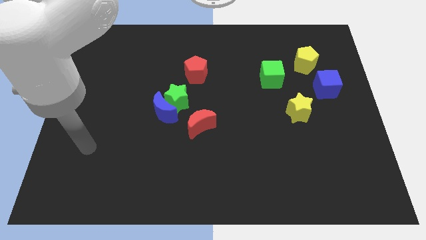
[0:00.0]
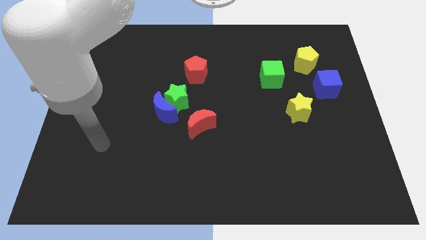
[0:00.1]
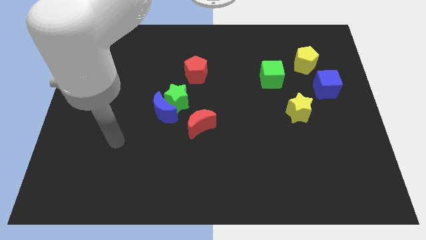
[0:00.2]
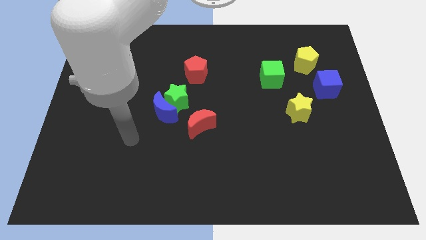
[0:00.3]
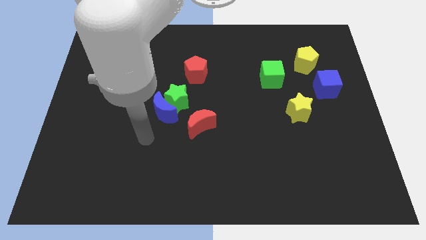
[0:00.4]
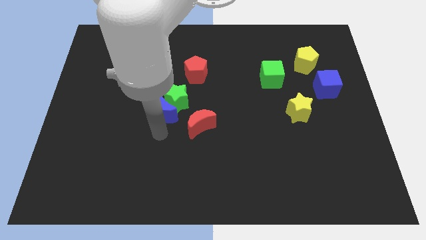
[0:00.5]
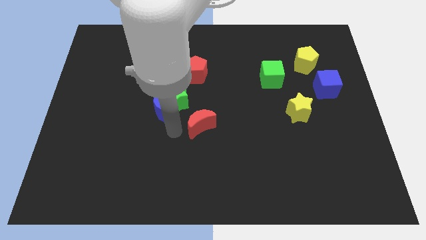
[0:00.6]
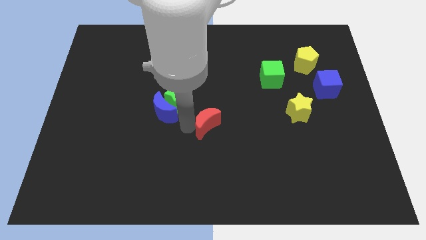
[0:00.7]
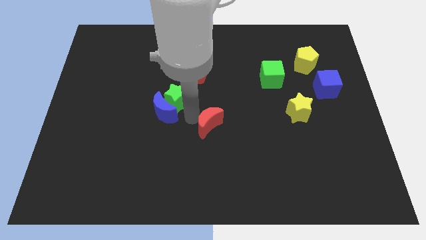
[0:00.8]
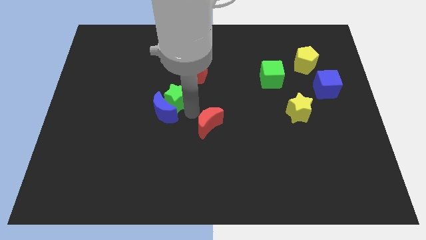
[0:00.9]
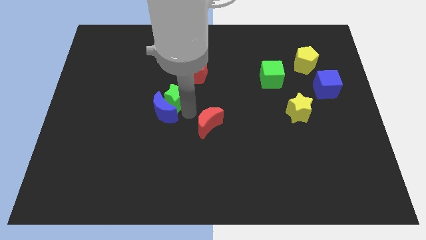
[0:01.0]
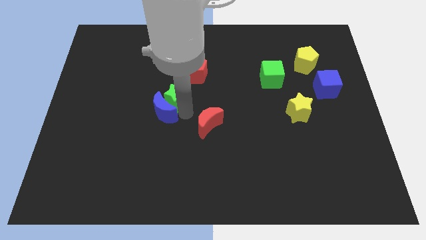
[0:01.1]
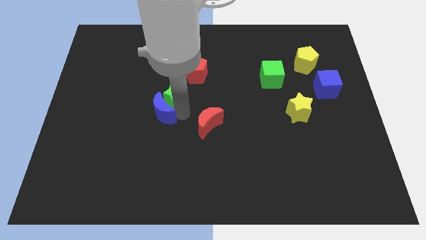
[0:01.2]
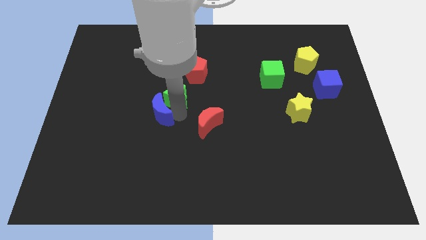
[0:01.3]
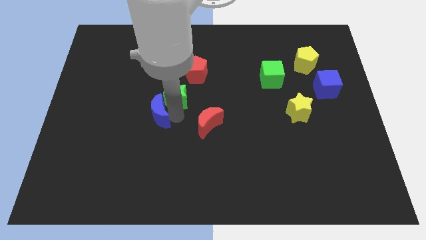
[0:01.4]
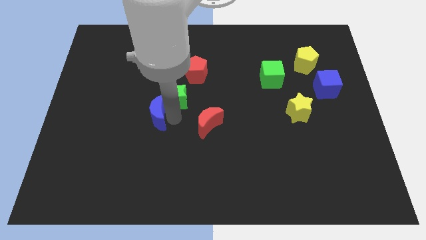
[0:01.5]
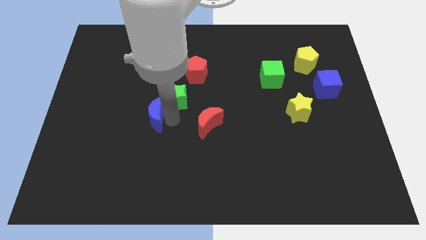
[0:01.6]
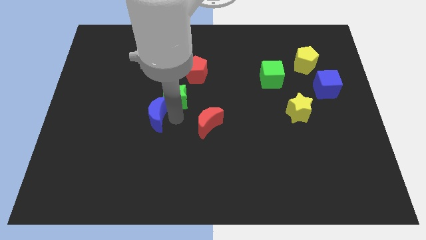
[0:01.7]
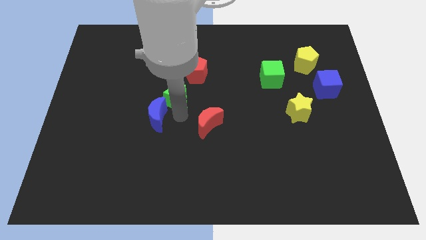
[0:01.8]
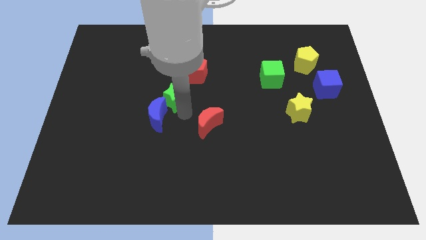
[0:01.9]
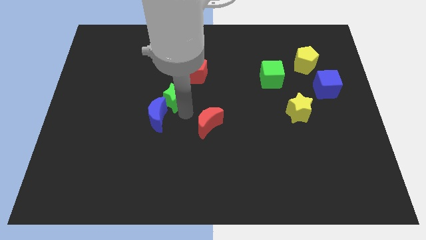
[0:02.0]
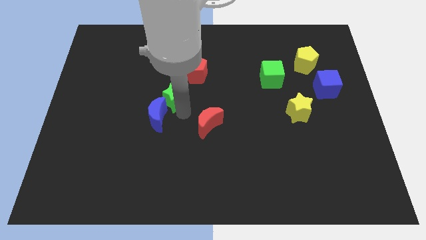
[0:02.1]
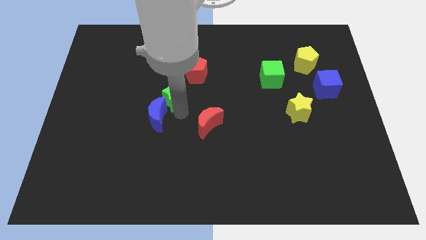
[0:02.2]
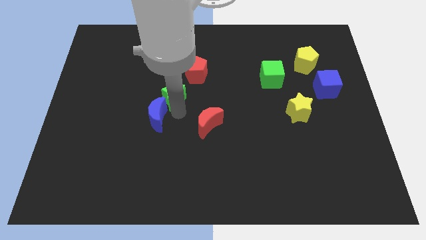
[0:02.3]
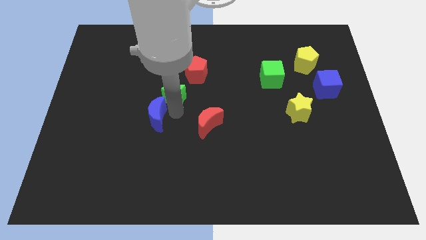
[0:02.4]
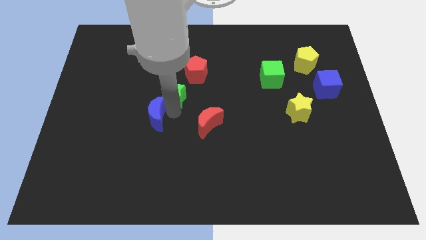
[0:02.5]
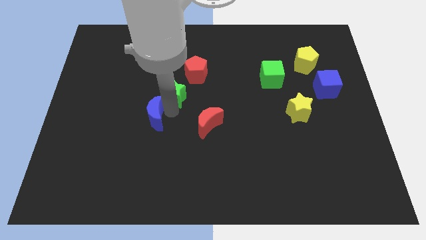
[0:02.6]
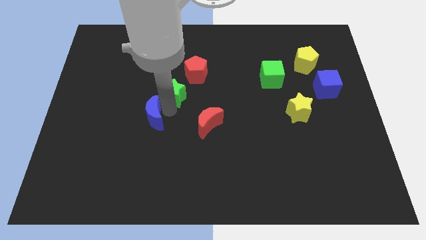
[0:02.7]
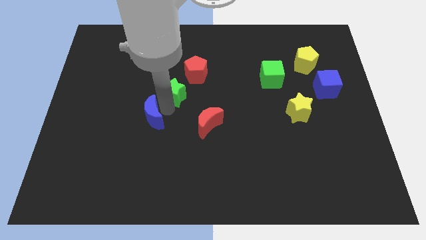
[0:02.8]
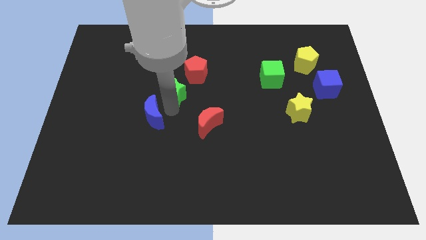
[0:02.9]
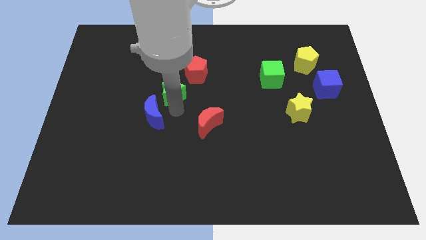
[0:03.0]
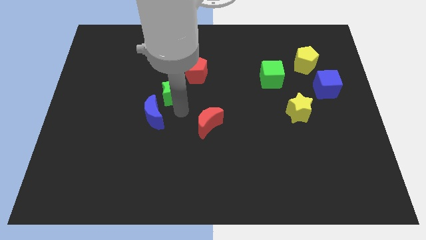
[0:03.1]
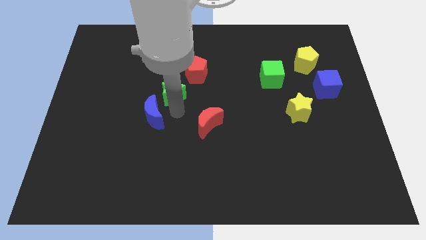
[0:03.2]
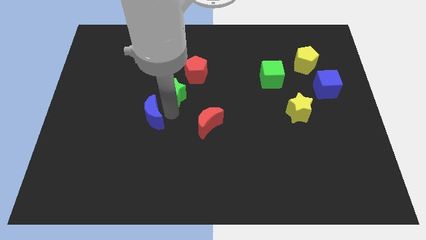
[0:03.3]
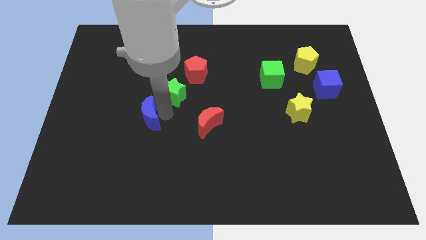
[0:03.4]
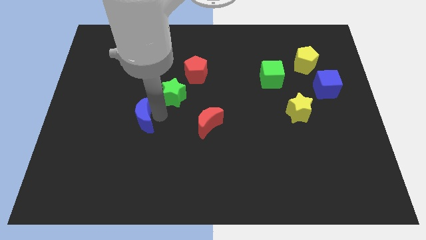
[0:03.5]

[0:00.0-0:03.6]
pull the blue moon apart from the green star and red moon

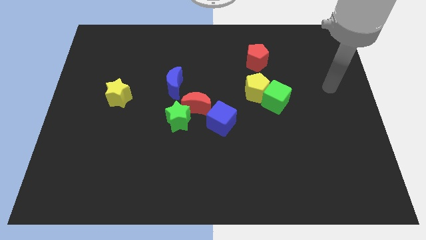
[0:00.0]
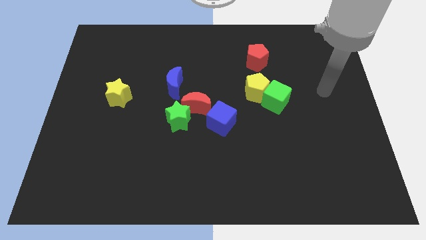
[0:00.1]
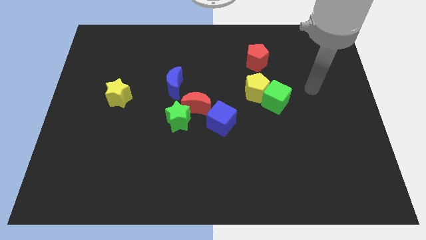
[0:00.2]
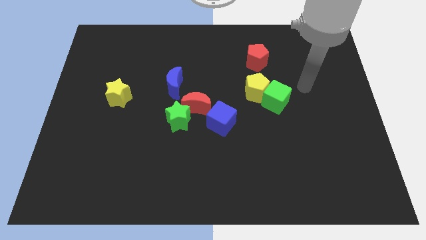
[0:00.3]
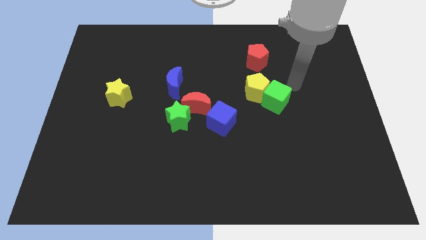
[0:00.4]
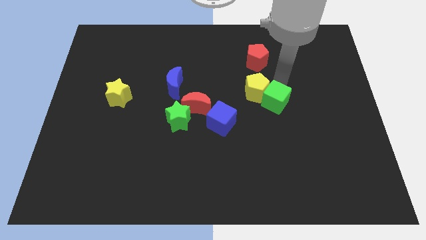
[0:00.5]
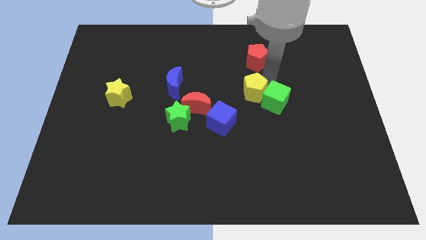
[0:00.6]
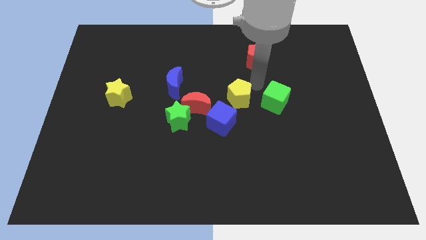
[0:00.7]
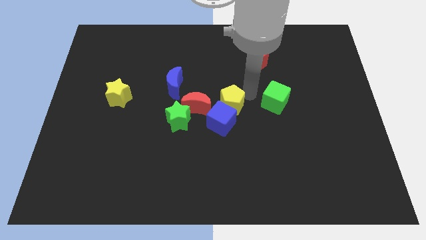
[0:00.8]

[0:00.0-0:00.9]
separate the green cube from the yellow pentagon

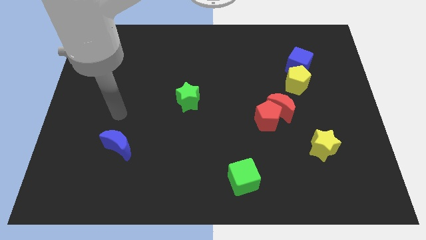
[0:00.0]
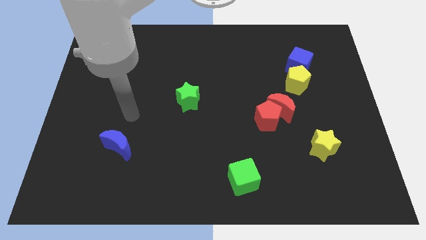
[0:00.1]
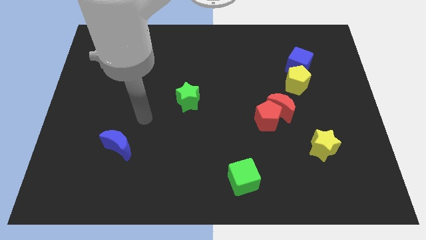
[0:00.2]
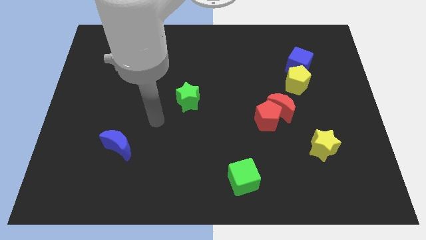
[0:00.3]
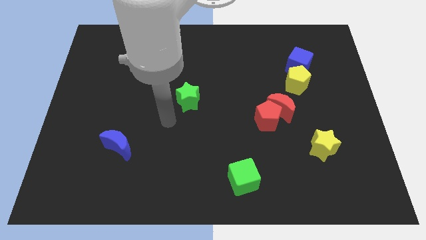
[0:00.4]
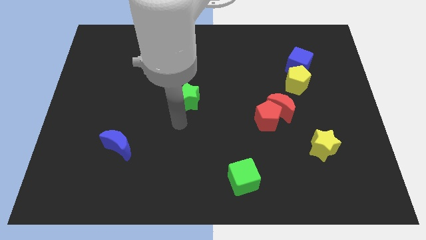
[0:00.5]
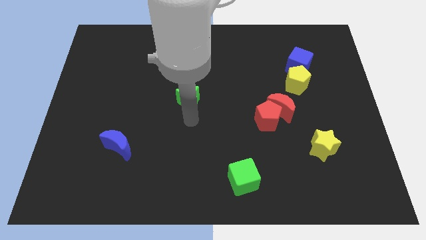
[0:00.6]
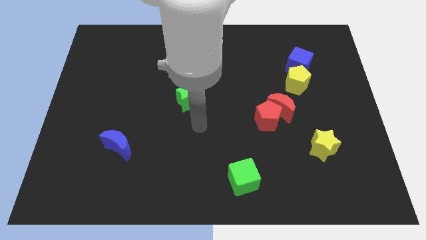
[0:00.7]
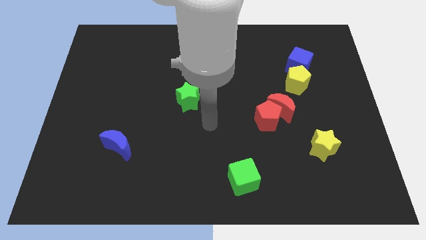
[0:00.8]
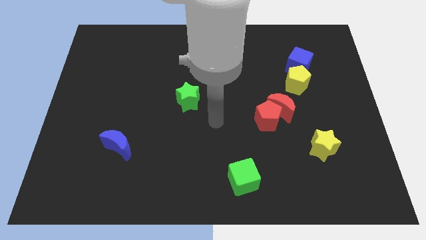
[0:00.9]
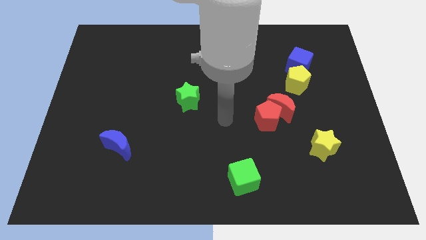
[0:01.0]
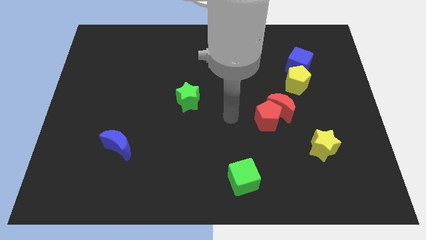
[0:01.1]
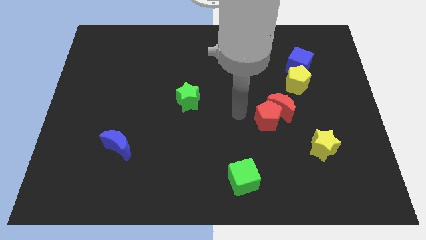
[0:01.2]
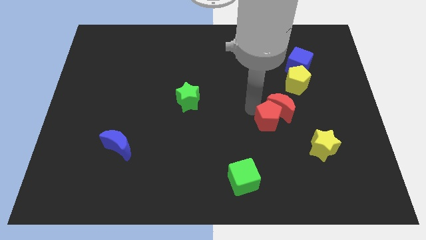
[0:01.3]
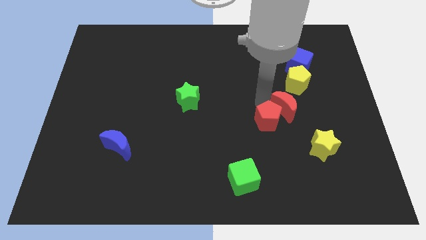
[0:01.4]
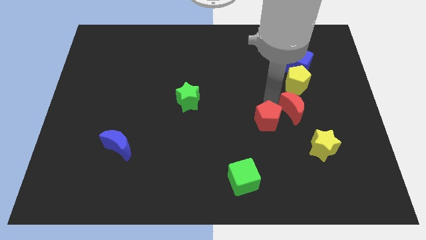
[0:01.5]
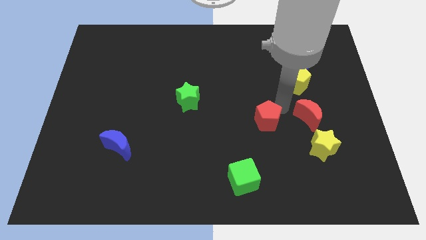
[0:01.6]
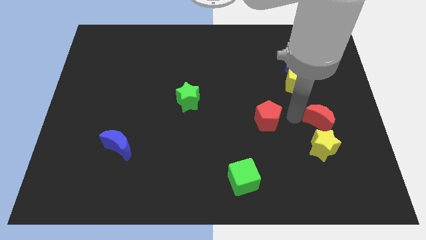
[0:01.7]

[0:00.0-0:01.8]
pull the red pentagon apart from the red moon

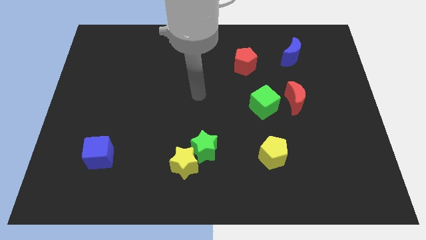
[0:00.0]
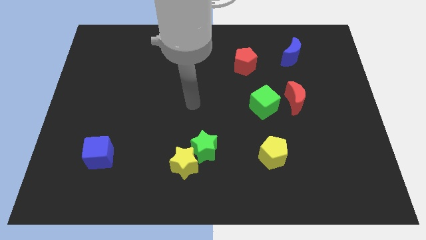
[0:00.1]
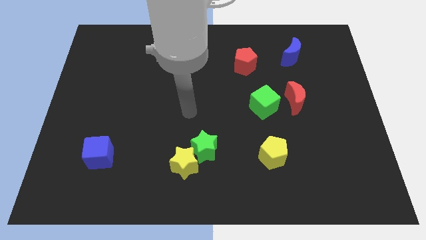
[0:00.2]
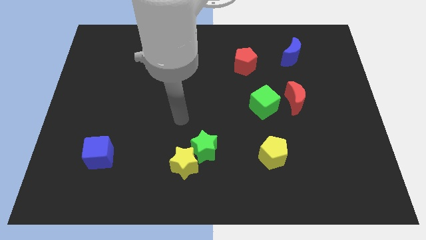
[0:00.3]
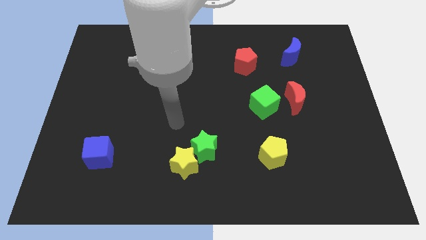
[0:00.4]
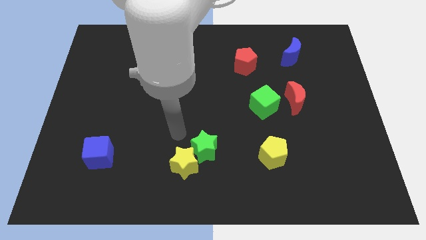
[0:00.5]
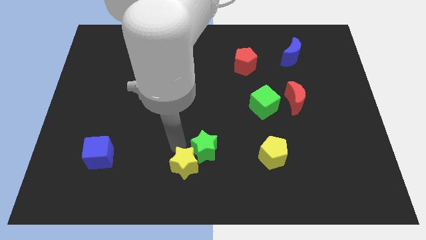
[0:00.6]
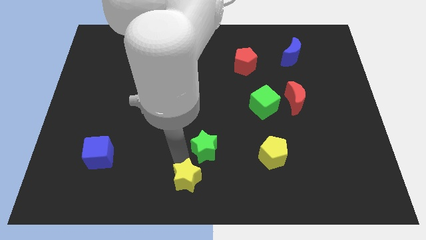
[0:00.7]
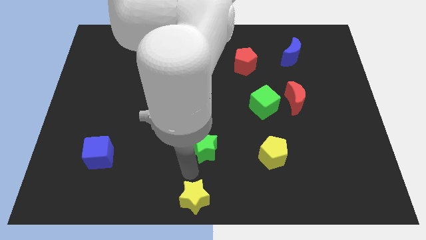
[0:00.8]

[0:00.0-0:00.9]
separate the green star from the yellow star

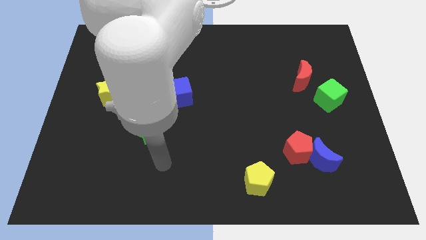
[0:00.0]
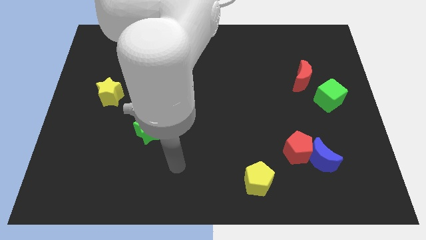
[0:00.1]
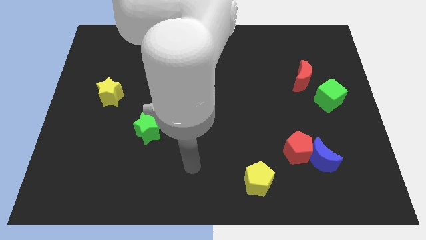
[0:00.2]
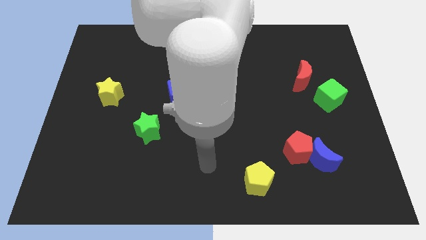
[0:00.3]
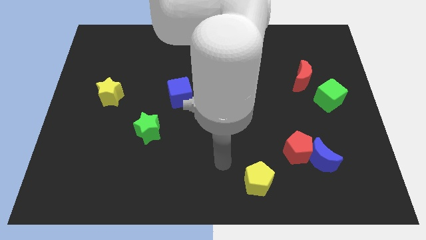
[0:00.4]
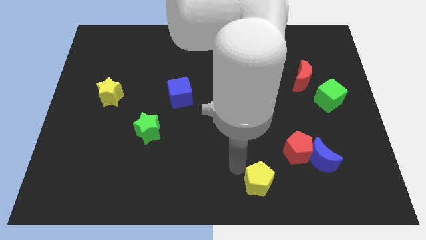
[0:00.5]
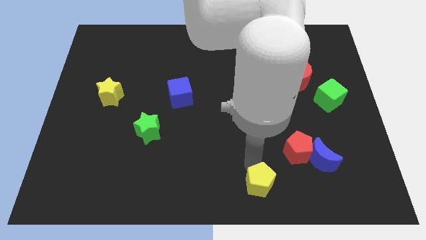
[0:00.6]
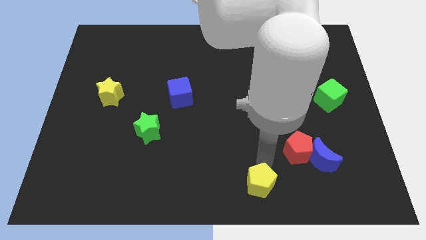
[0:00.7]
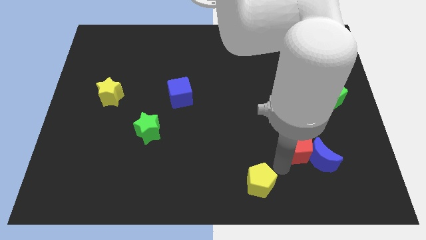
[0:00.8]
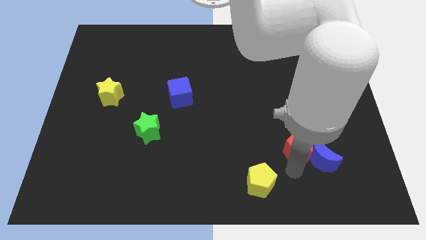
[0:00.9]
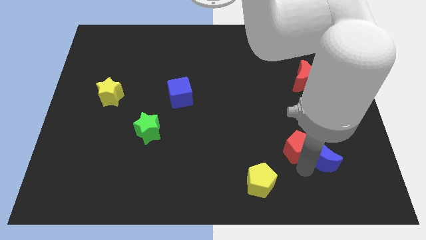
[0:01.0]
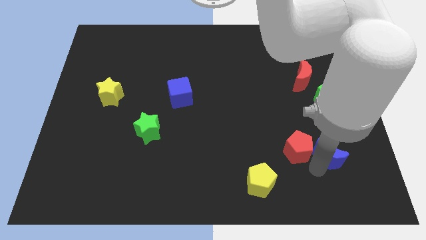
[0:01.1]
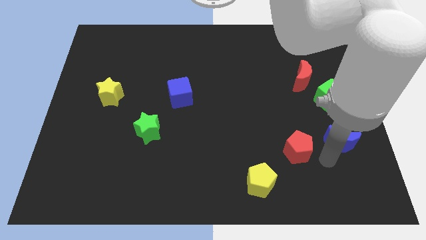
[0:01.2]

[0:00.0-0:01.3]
pull the red pentagon apart from the blue moon

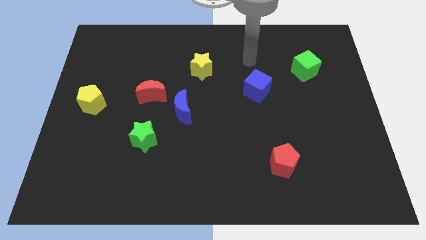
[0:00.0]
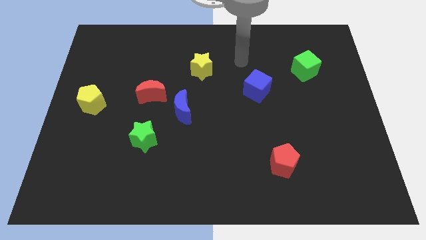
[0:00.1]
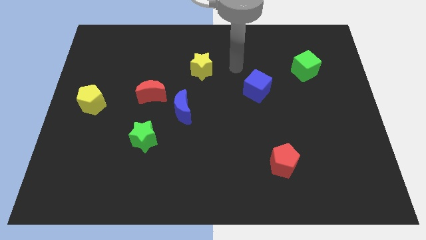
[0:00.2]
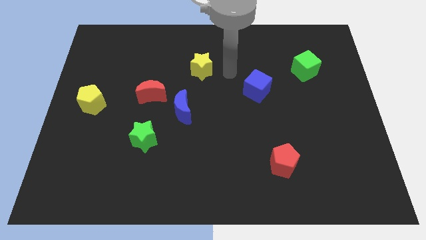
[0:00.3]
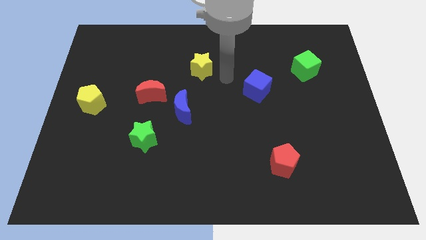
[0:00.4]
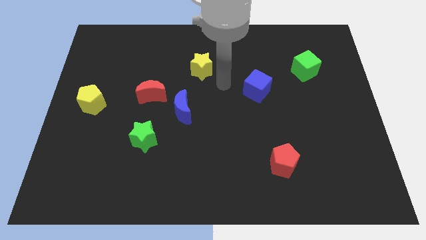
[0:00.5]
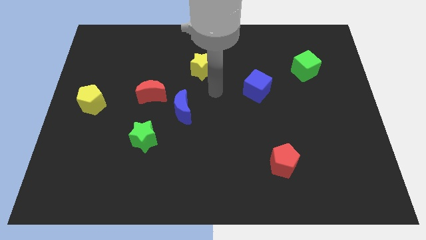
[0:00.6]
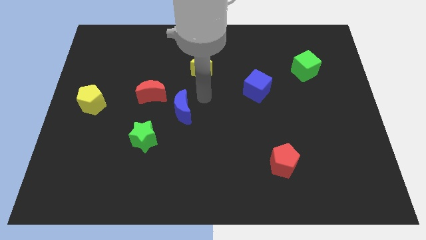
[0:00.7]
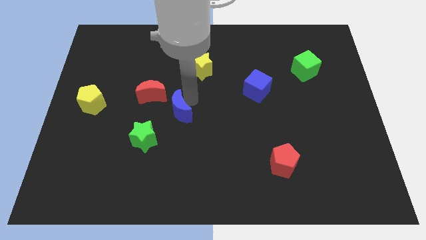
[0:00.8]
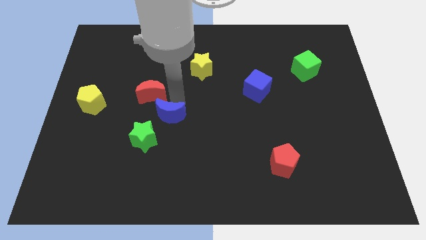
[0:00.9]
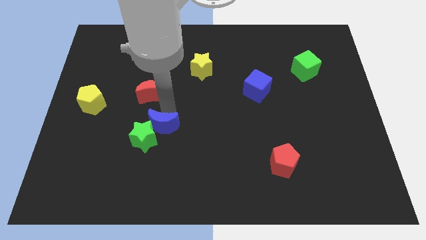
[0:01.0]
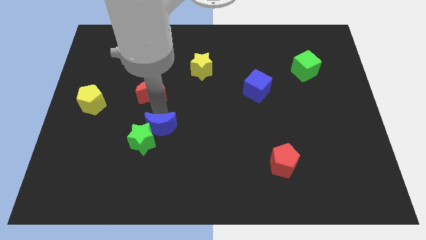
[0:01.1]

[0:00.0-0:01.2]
separate the red moon from the blue moon
